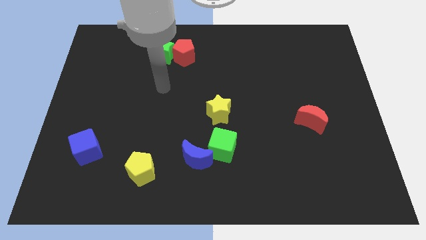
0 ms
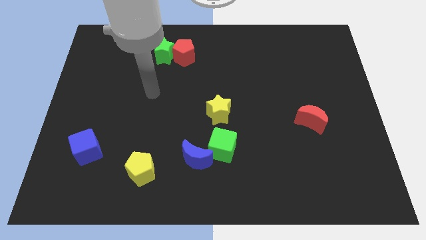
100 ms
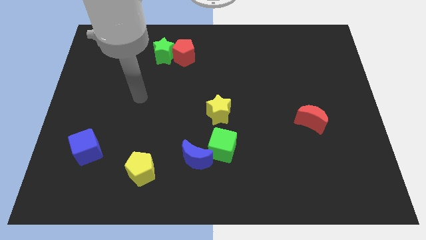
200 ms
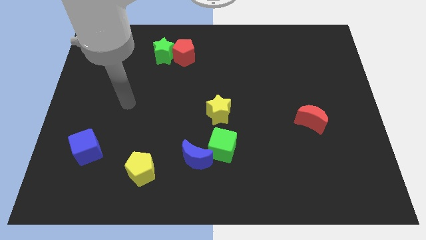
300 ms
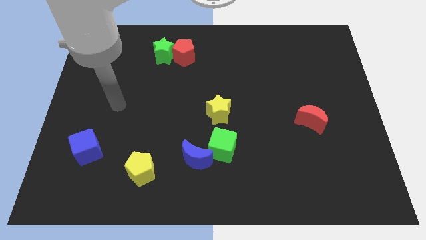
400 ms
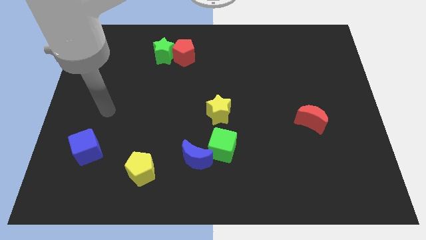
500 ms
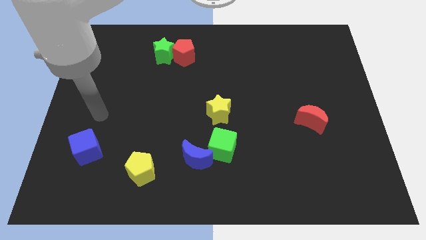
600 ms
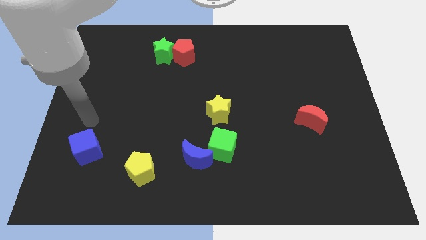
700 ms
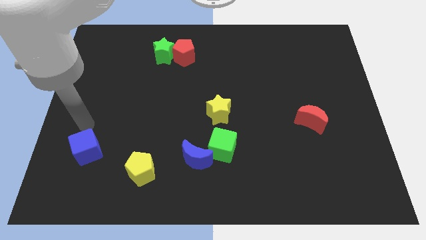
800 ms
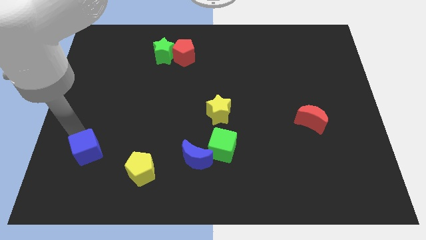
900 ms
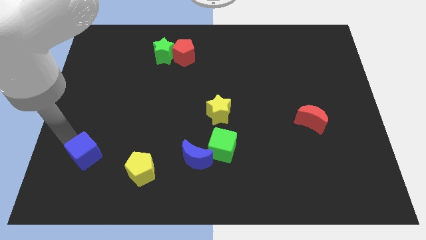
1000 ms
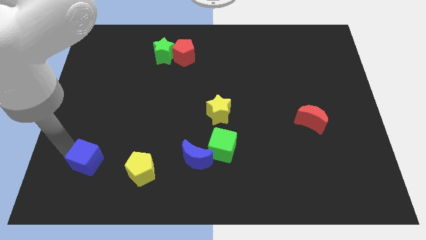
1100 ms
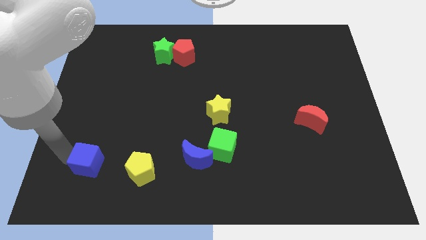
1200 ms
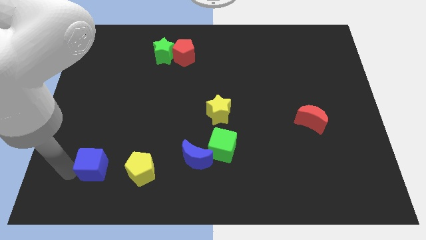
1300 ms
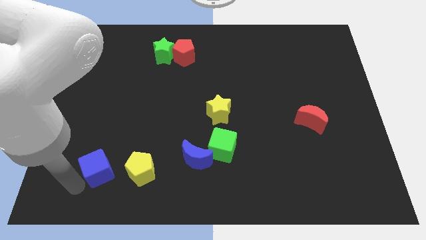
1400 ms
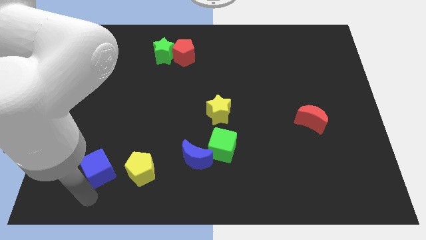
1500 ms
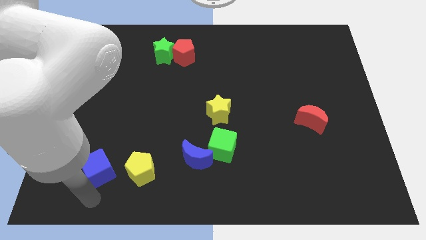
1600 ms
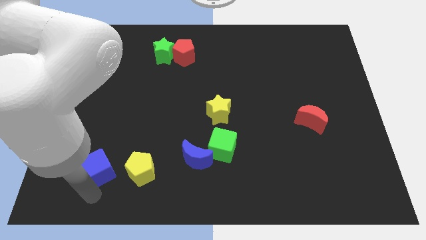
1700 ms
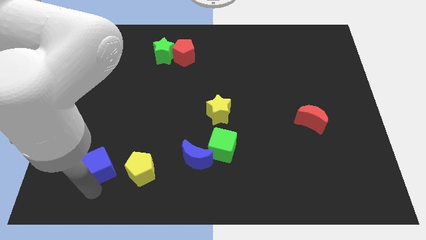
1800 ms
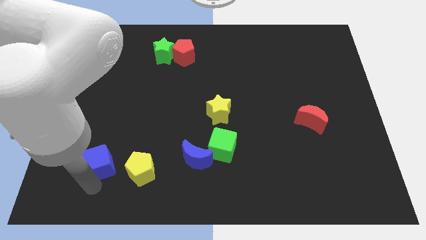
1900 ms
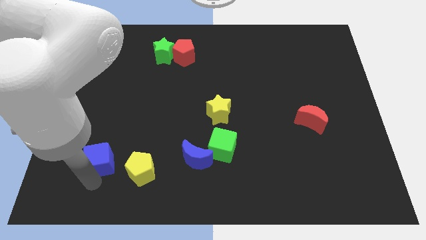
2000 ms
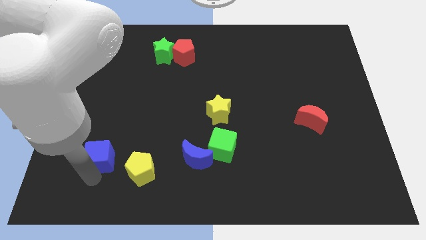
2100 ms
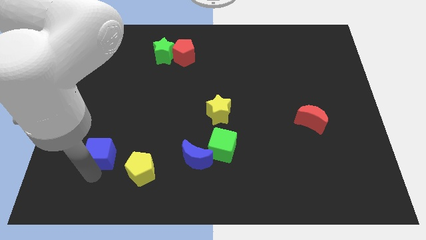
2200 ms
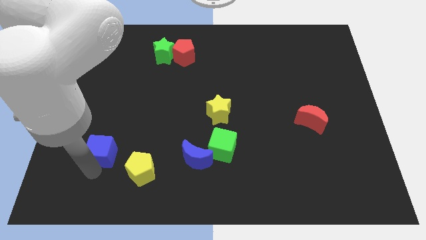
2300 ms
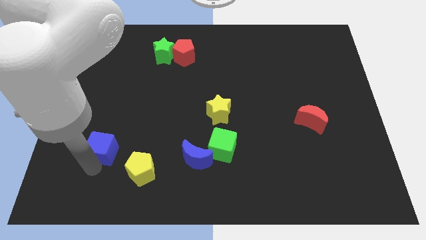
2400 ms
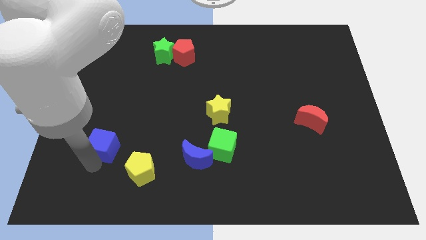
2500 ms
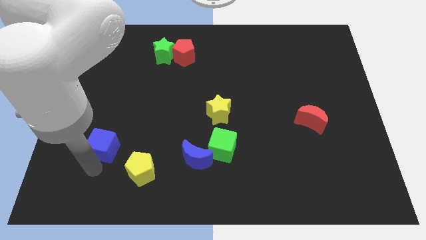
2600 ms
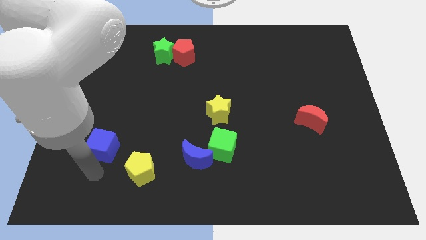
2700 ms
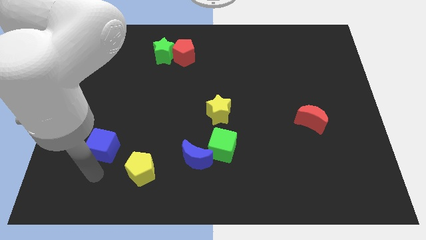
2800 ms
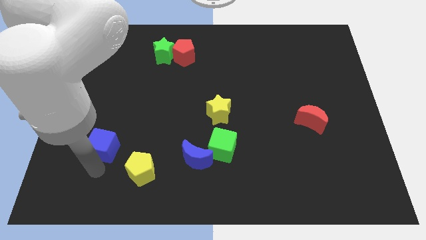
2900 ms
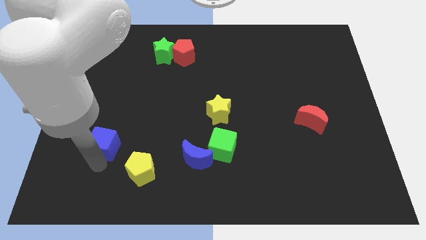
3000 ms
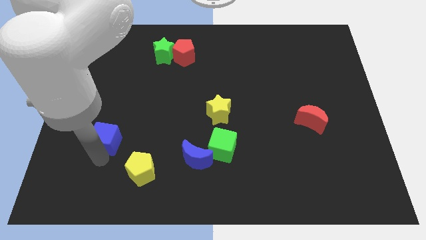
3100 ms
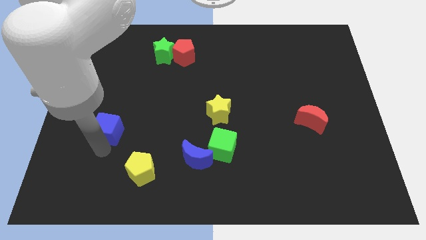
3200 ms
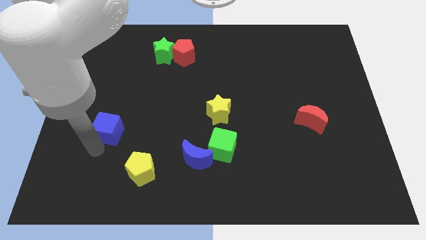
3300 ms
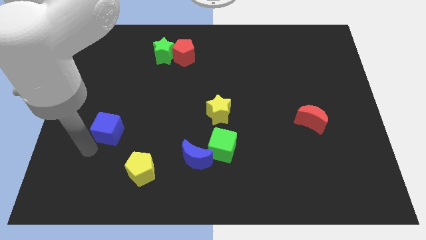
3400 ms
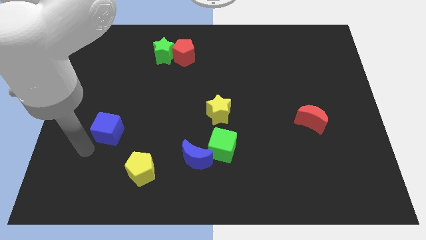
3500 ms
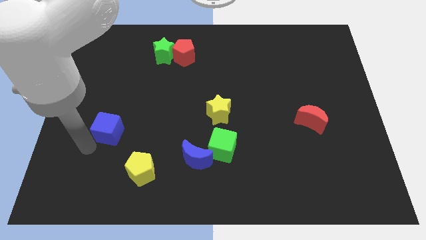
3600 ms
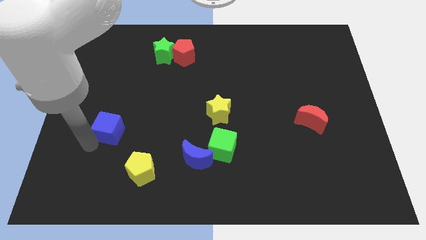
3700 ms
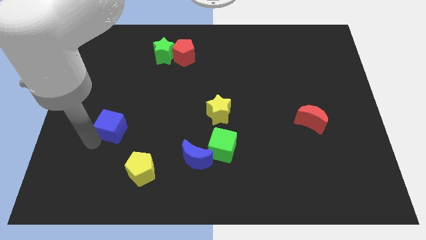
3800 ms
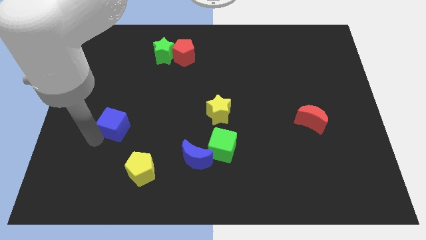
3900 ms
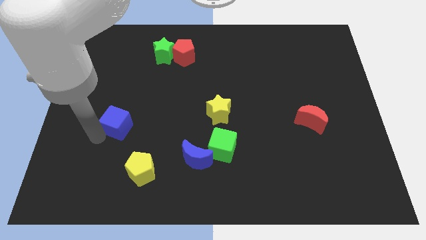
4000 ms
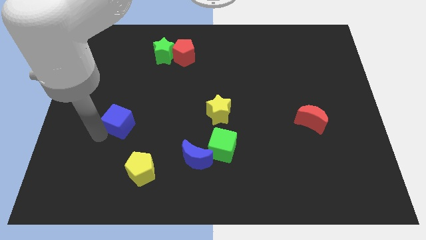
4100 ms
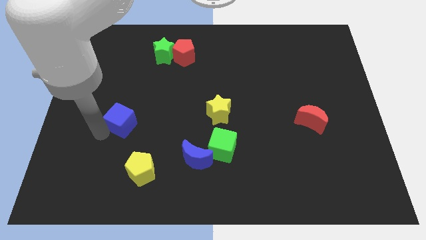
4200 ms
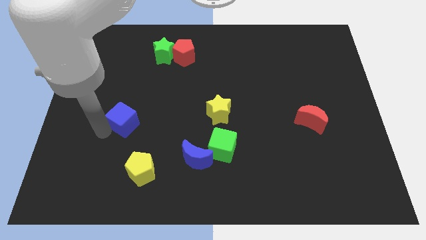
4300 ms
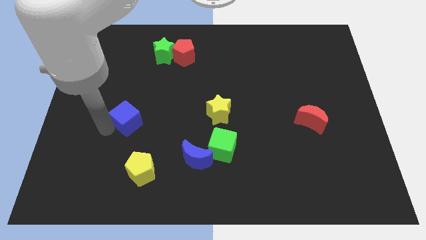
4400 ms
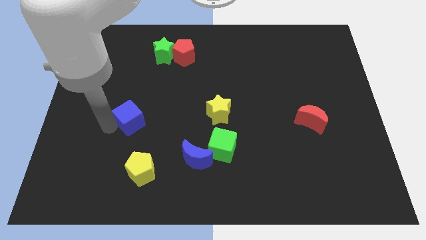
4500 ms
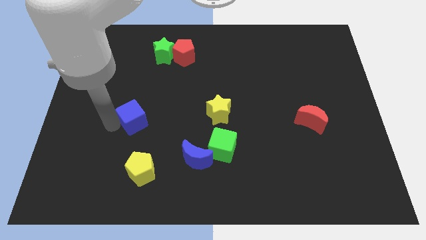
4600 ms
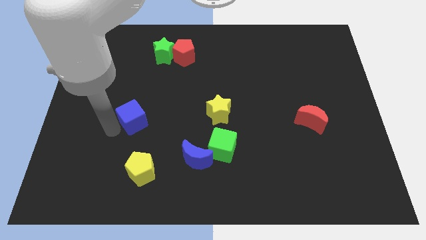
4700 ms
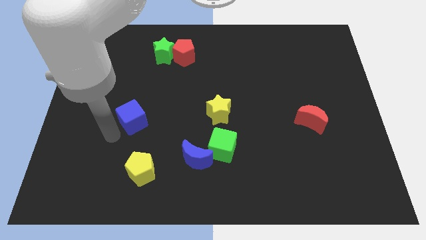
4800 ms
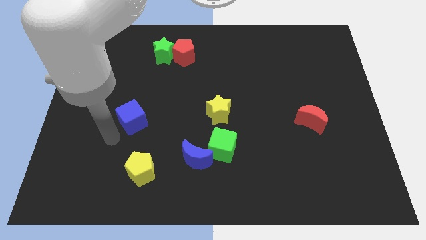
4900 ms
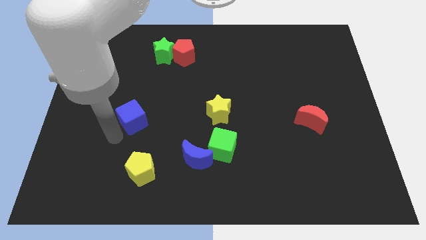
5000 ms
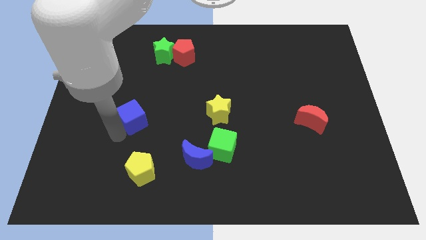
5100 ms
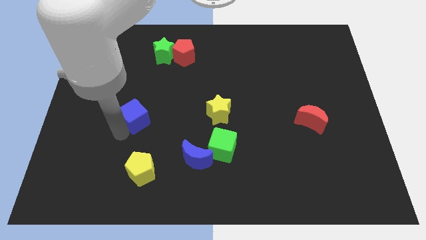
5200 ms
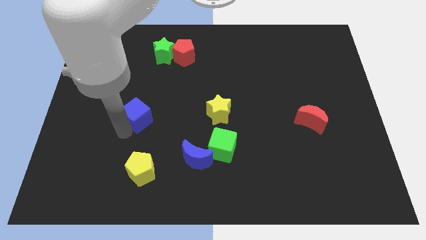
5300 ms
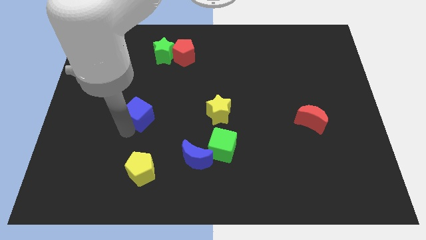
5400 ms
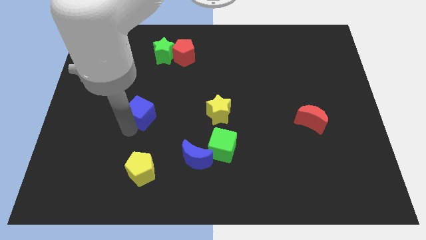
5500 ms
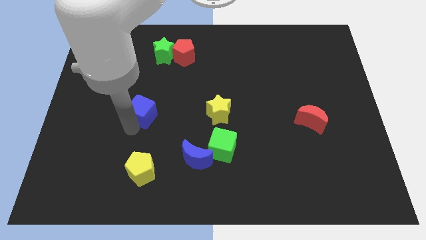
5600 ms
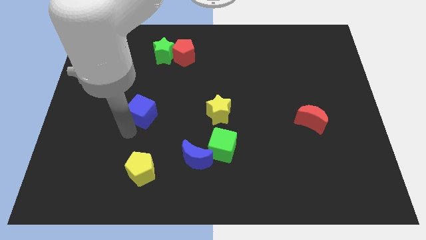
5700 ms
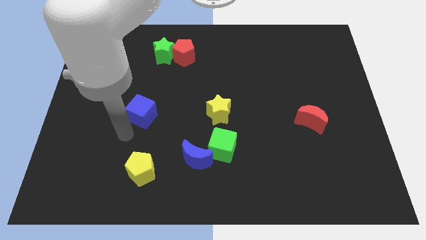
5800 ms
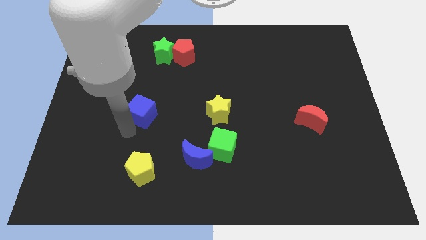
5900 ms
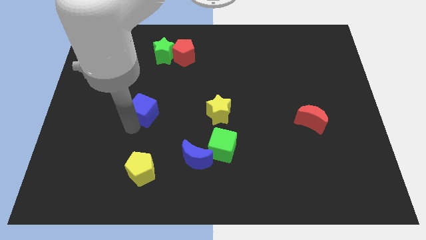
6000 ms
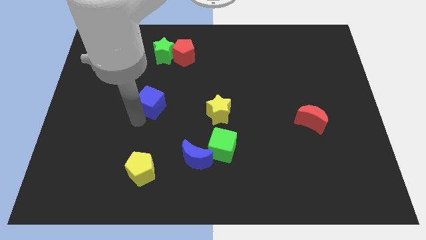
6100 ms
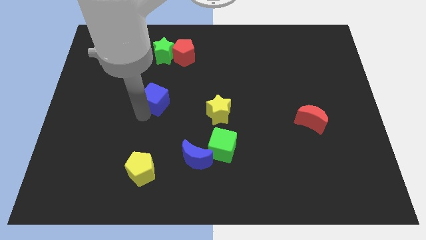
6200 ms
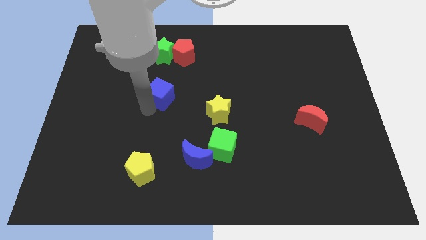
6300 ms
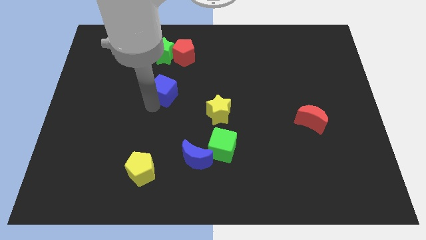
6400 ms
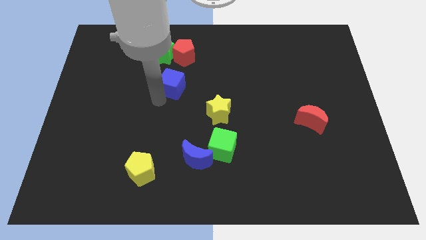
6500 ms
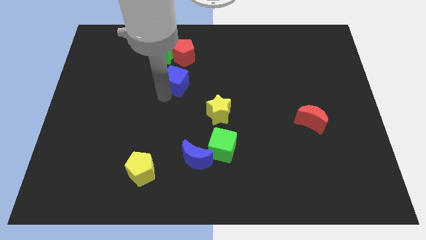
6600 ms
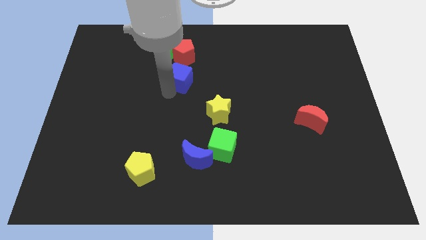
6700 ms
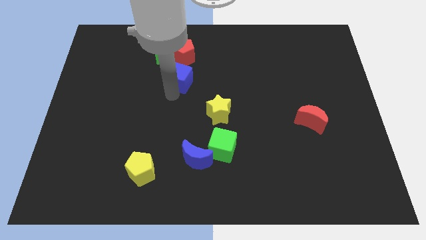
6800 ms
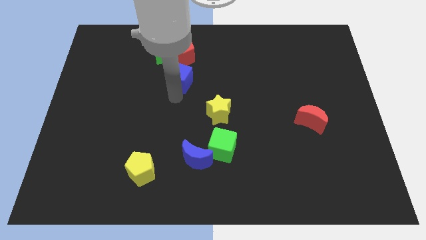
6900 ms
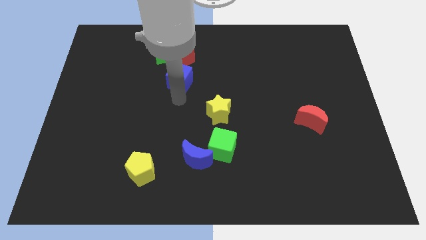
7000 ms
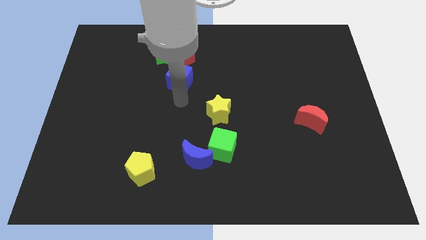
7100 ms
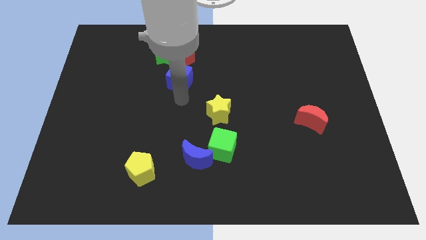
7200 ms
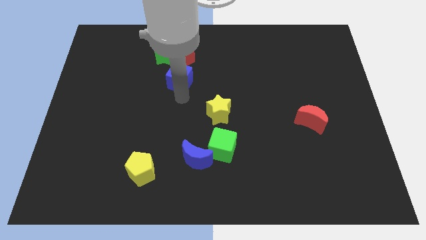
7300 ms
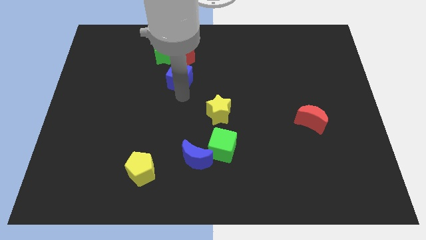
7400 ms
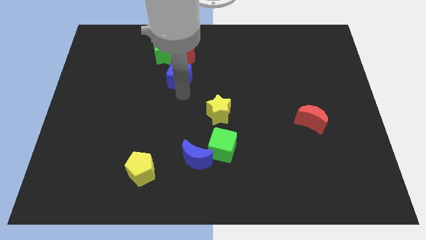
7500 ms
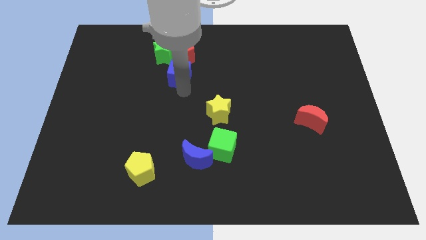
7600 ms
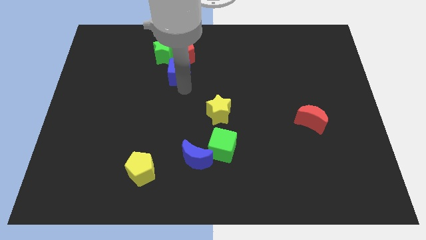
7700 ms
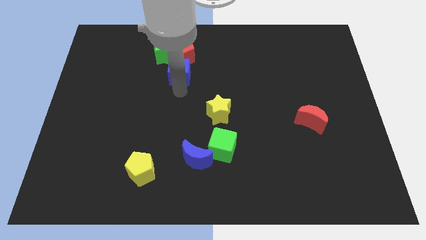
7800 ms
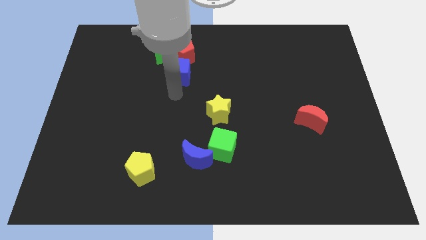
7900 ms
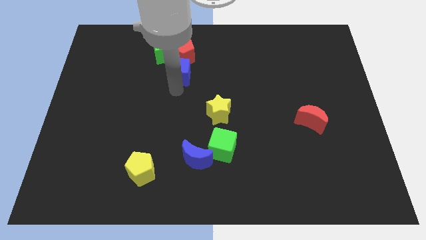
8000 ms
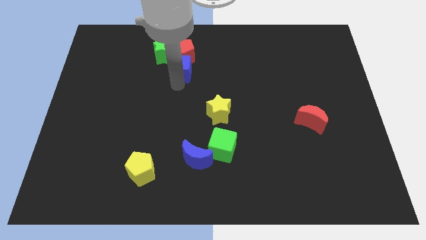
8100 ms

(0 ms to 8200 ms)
put the blue cube towards the red pentagon
